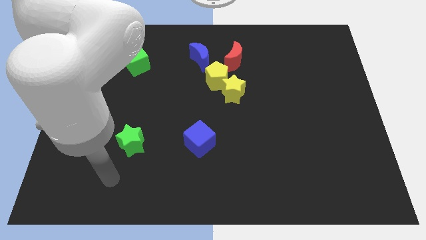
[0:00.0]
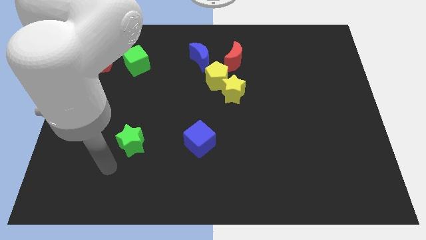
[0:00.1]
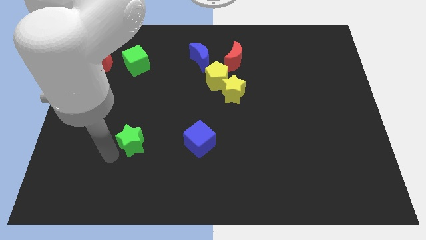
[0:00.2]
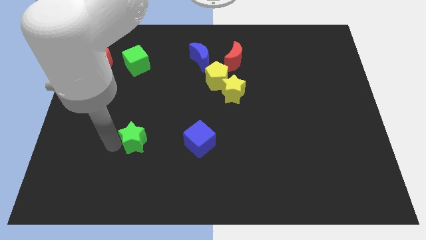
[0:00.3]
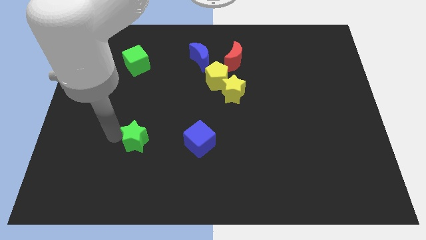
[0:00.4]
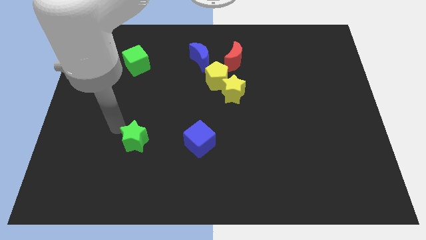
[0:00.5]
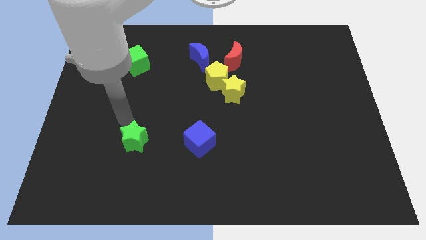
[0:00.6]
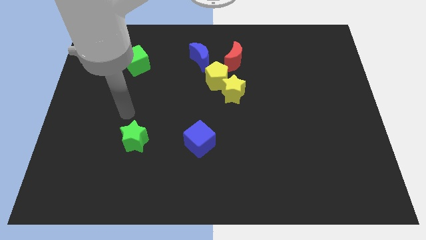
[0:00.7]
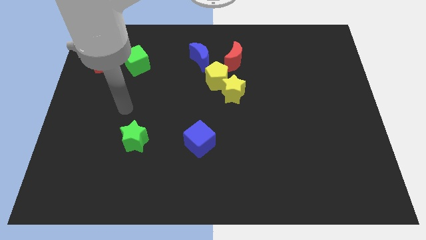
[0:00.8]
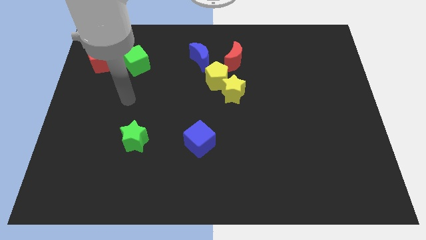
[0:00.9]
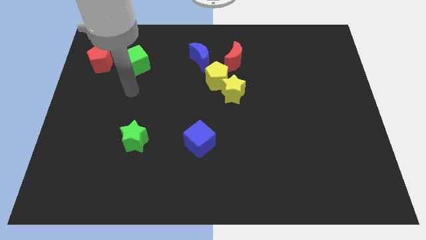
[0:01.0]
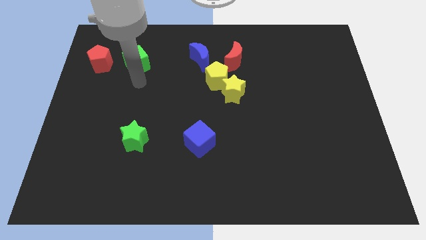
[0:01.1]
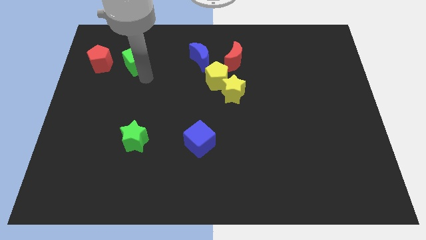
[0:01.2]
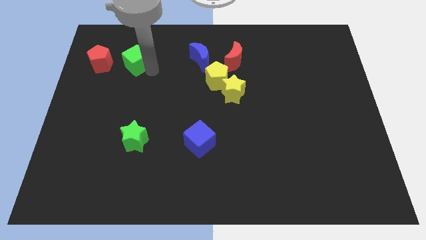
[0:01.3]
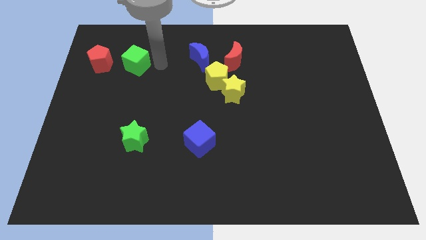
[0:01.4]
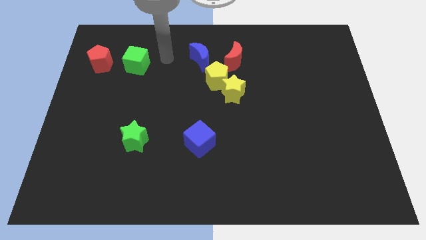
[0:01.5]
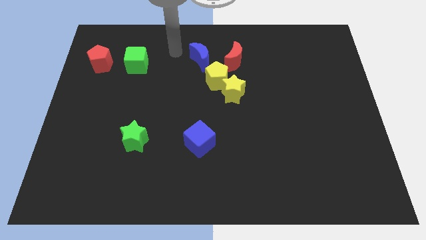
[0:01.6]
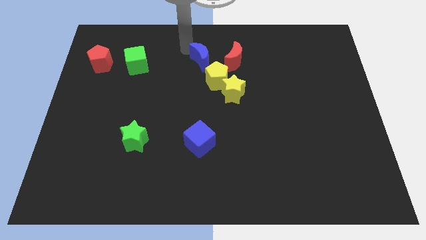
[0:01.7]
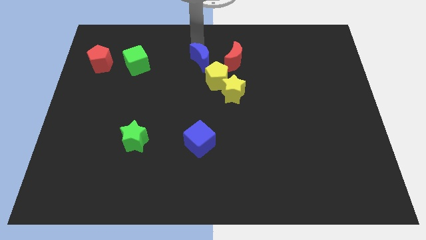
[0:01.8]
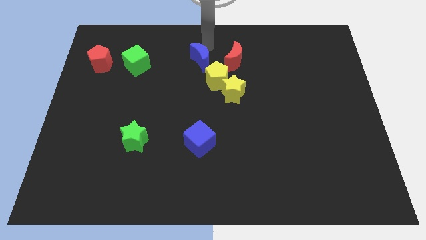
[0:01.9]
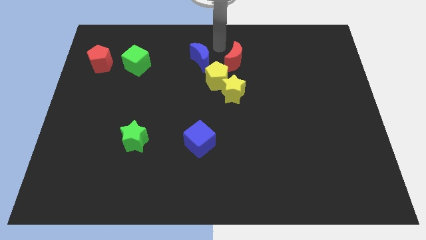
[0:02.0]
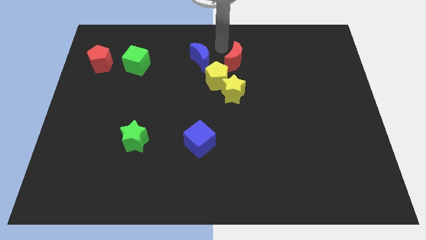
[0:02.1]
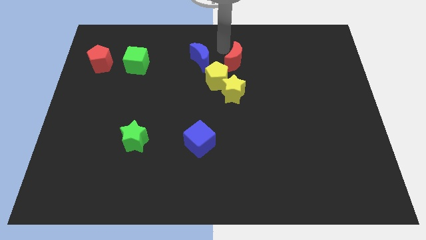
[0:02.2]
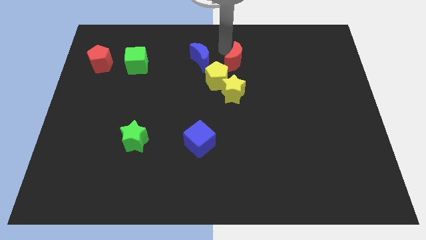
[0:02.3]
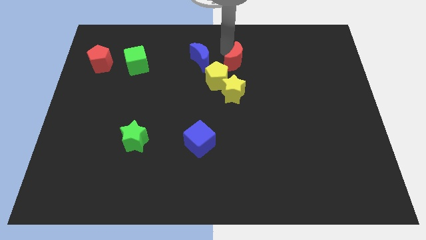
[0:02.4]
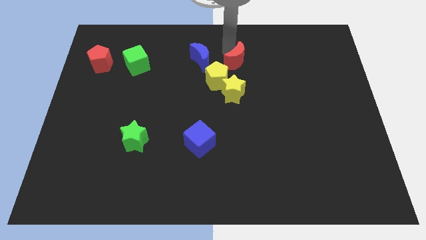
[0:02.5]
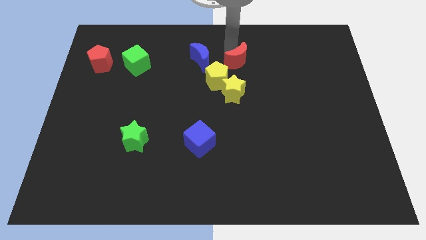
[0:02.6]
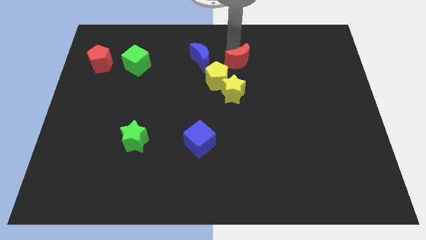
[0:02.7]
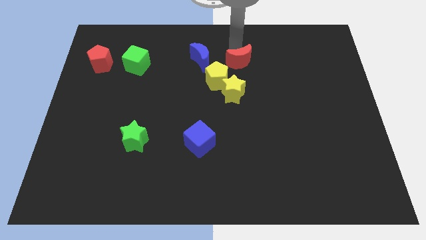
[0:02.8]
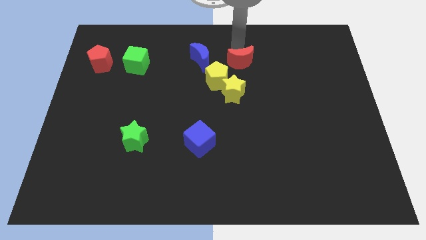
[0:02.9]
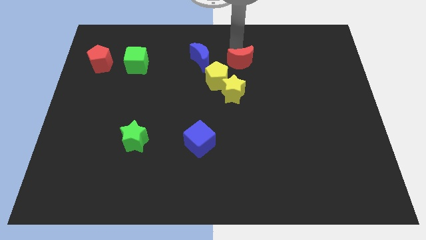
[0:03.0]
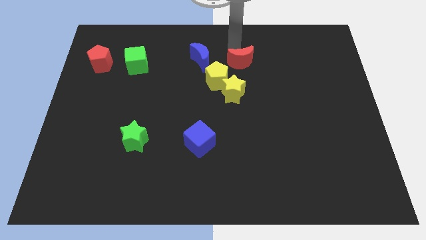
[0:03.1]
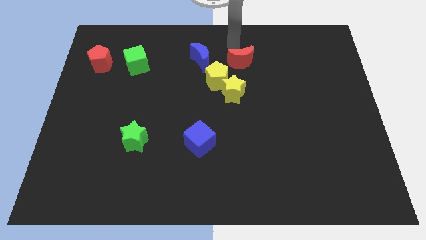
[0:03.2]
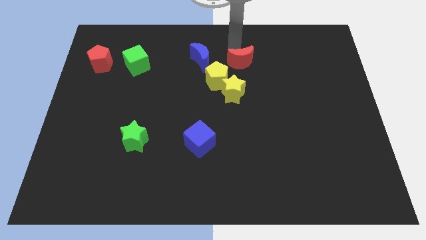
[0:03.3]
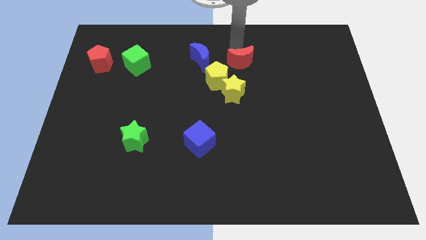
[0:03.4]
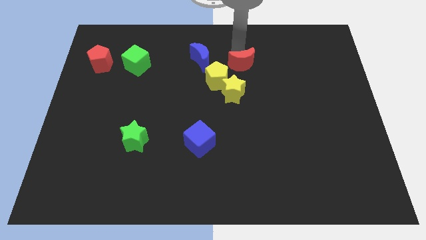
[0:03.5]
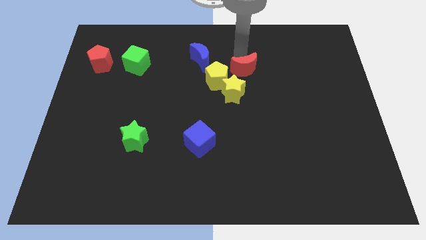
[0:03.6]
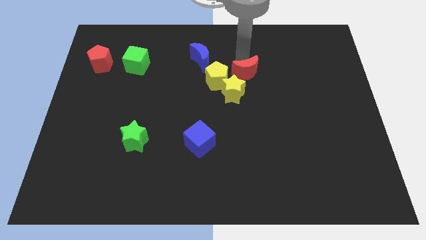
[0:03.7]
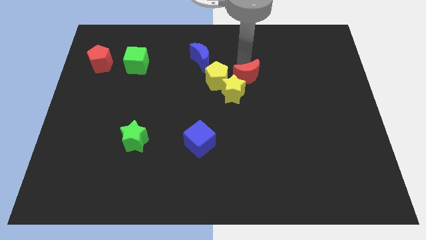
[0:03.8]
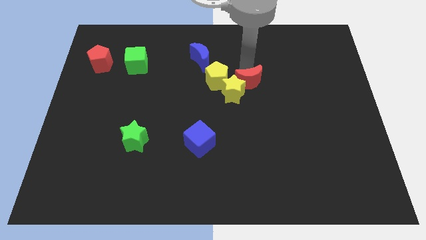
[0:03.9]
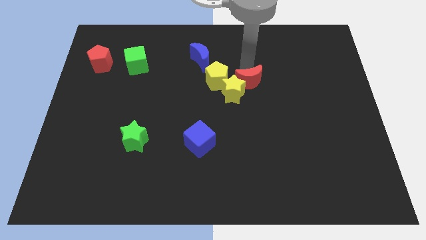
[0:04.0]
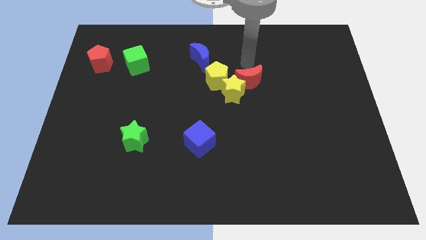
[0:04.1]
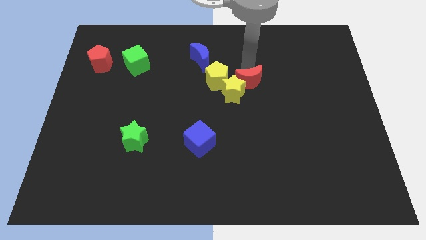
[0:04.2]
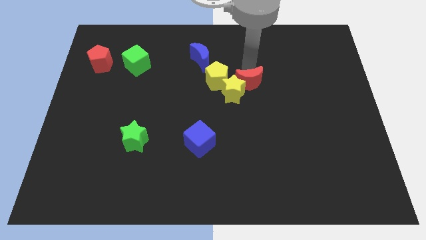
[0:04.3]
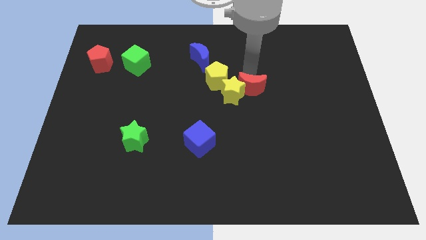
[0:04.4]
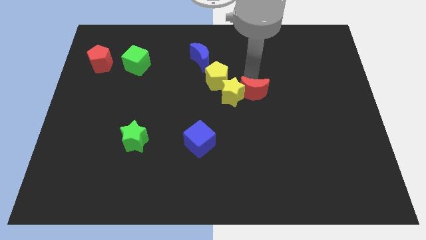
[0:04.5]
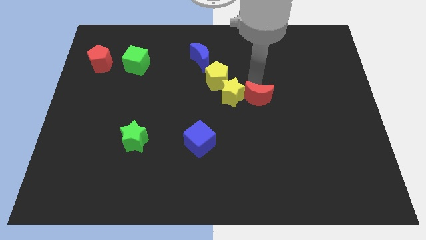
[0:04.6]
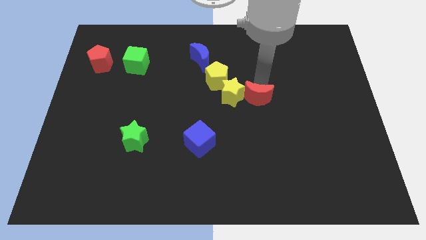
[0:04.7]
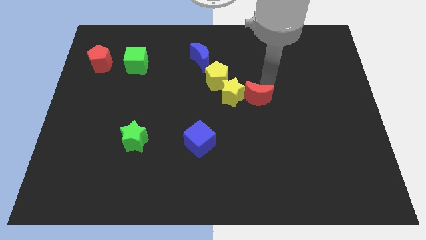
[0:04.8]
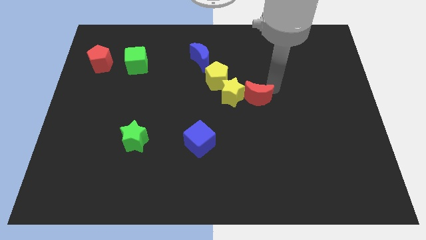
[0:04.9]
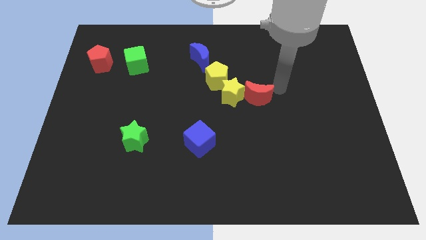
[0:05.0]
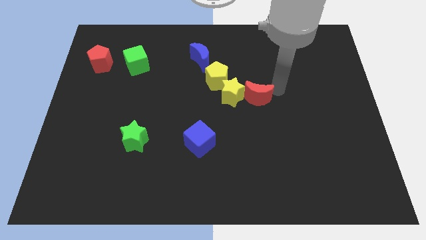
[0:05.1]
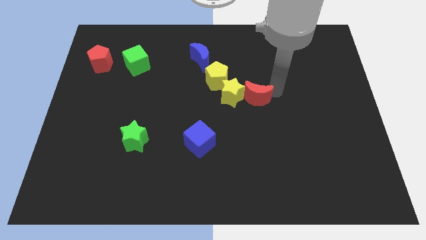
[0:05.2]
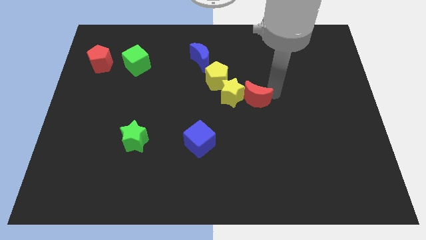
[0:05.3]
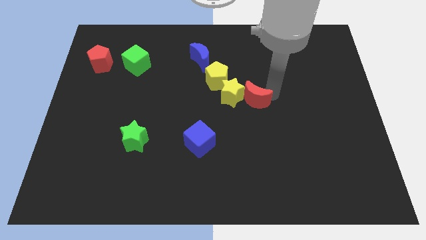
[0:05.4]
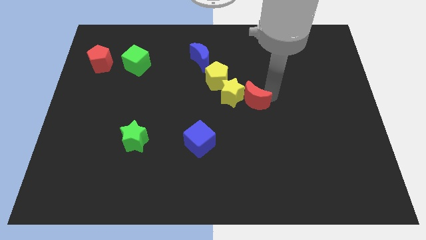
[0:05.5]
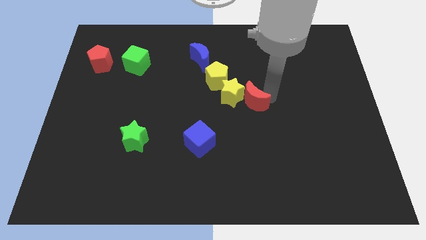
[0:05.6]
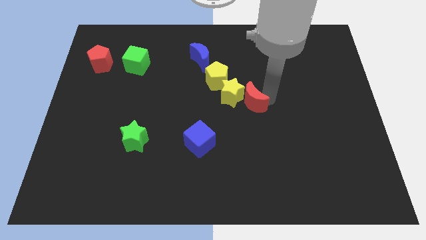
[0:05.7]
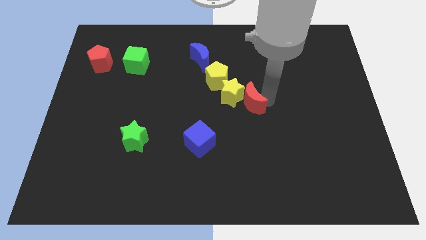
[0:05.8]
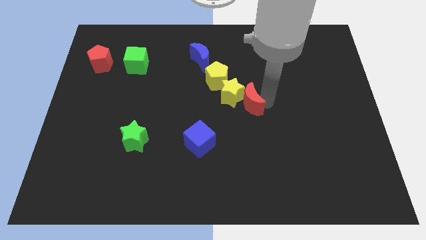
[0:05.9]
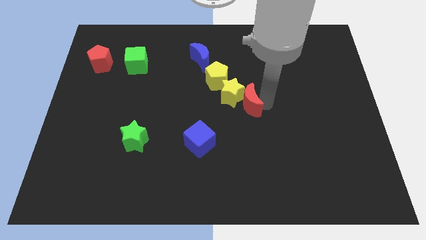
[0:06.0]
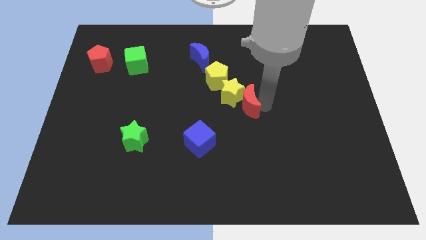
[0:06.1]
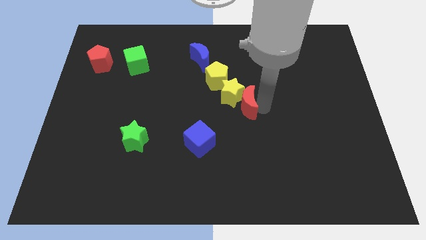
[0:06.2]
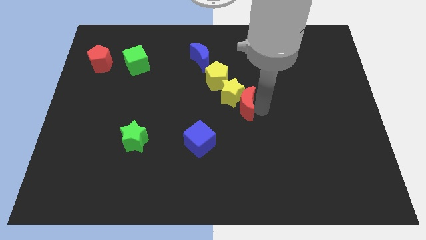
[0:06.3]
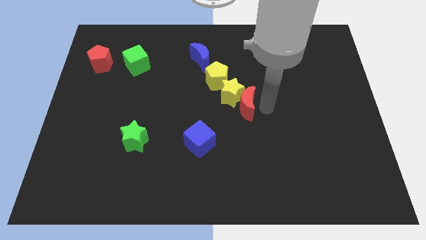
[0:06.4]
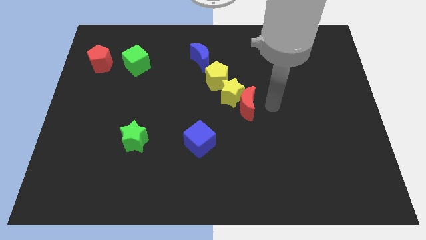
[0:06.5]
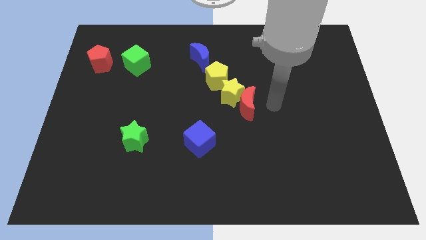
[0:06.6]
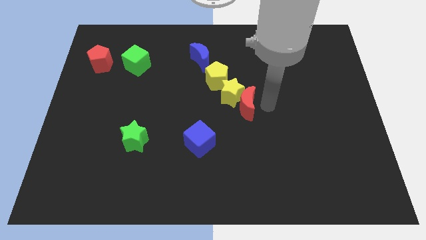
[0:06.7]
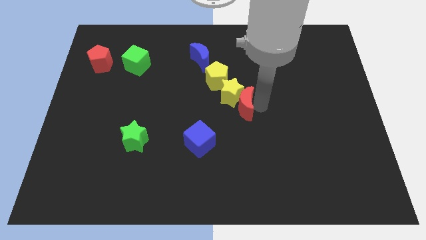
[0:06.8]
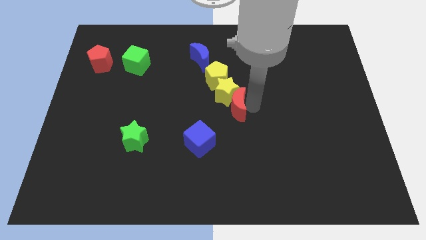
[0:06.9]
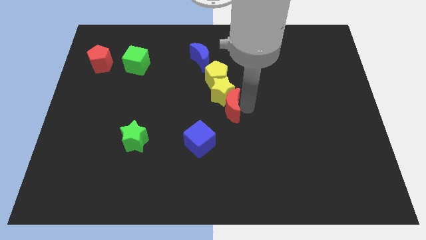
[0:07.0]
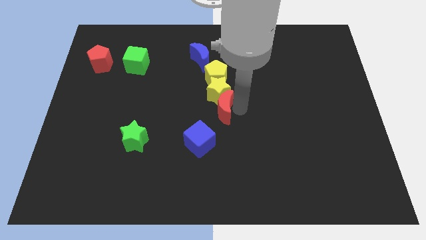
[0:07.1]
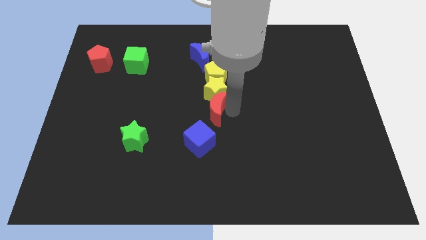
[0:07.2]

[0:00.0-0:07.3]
move the red moon to the top of the blue cube
